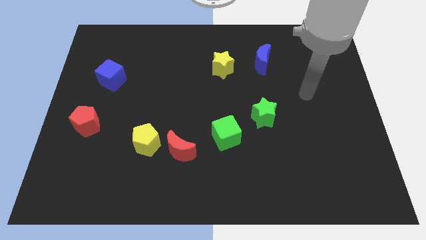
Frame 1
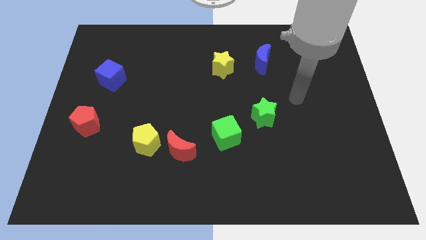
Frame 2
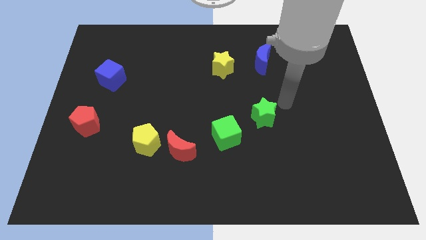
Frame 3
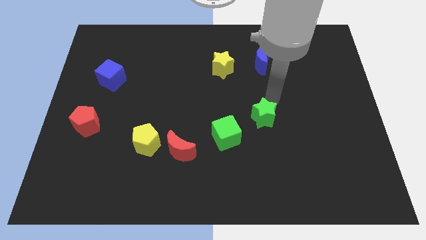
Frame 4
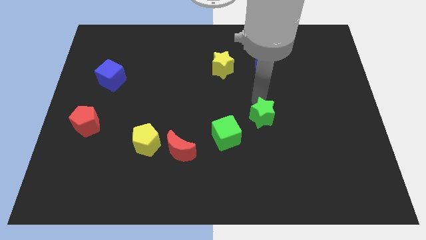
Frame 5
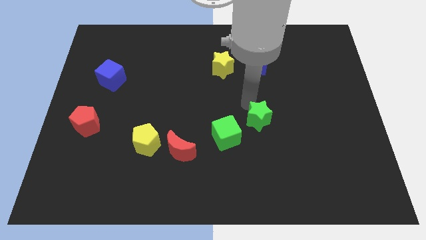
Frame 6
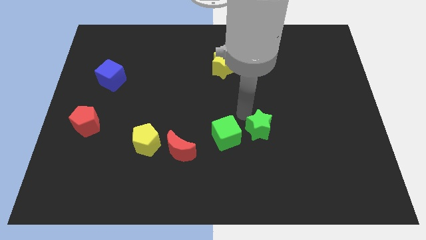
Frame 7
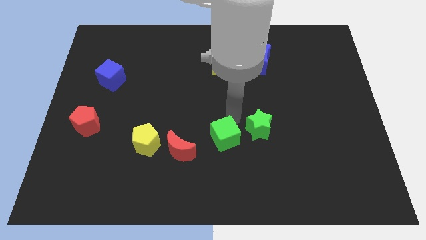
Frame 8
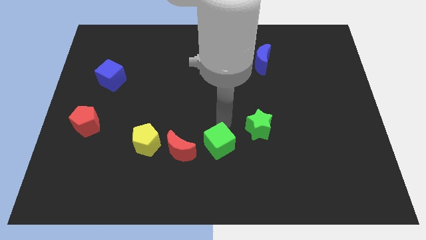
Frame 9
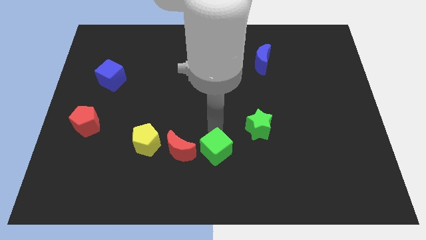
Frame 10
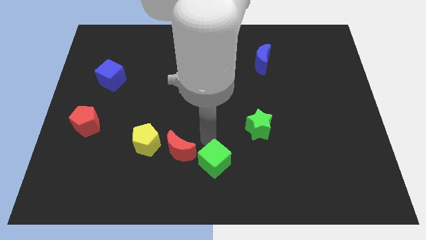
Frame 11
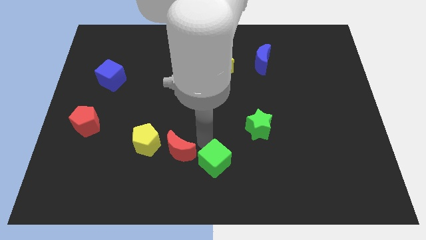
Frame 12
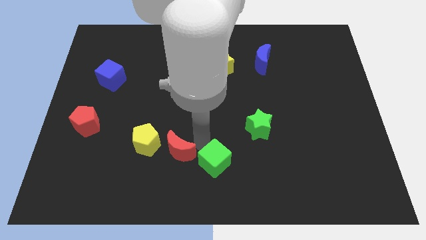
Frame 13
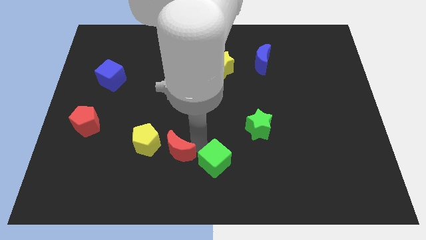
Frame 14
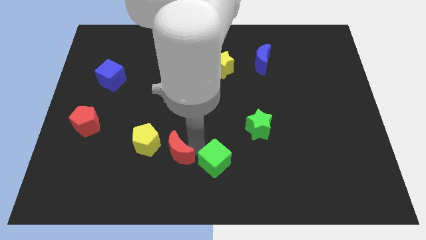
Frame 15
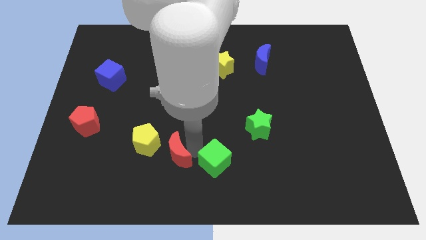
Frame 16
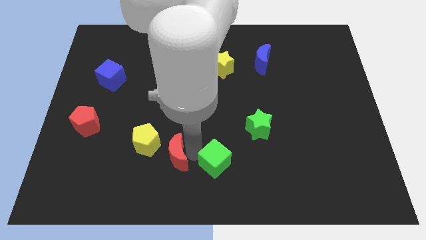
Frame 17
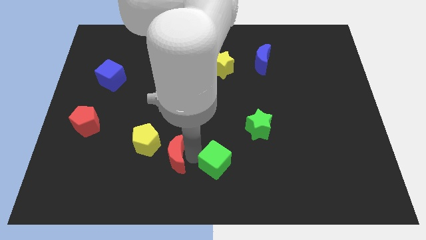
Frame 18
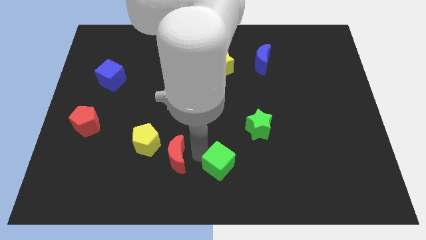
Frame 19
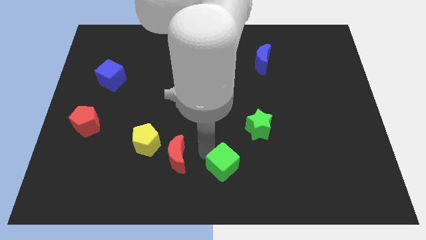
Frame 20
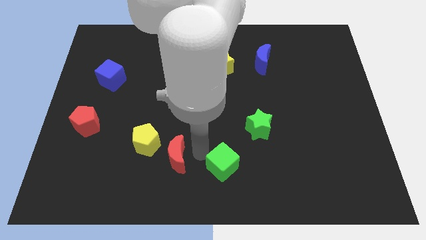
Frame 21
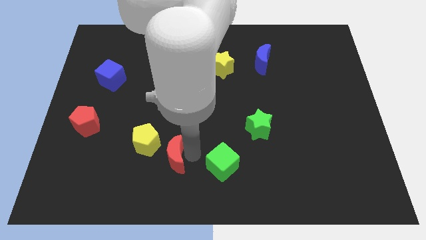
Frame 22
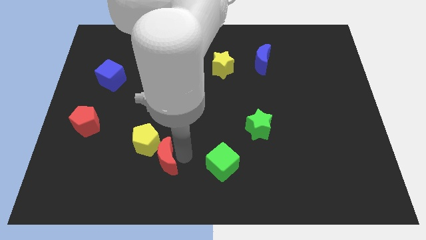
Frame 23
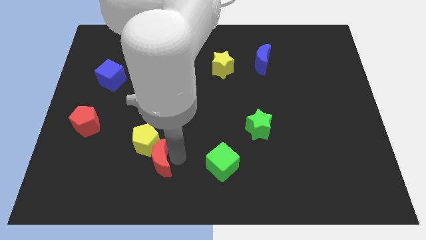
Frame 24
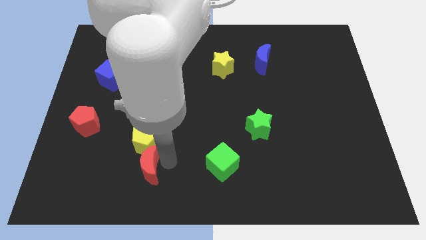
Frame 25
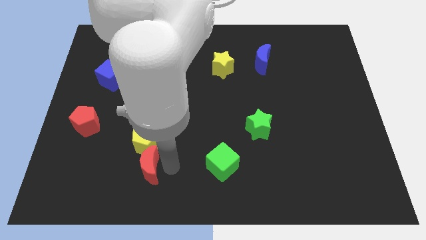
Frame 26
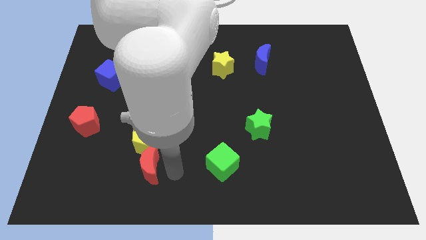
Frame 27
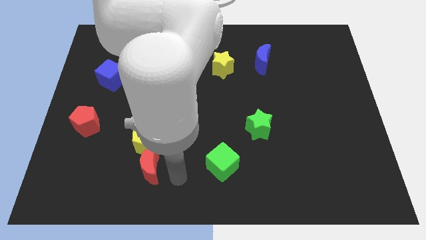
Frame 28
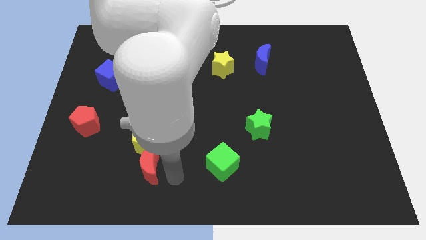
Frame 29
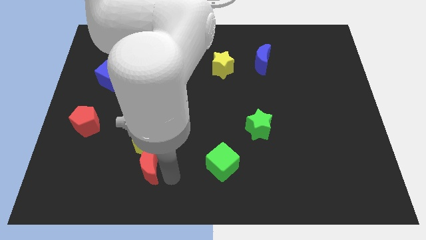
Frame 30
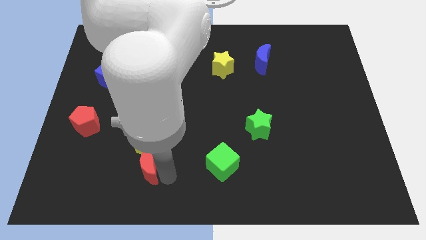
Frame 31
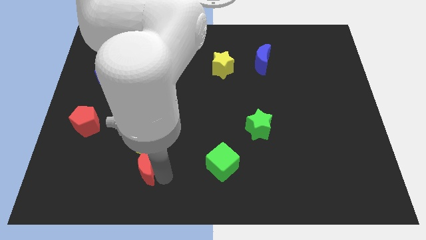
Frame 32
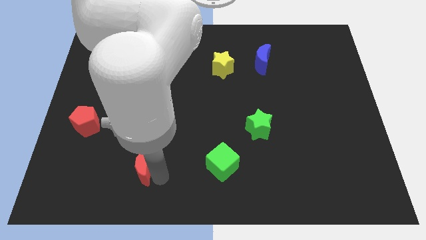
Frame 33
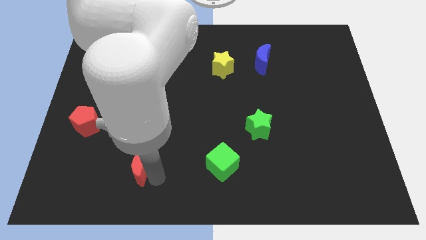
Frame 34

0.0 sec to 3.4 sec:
move the red moon a little left

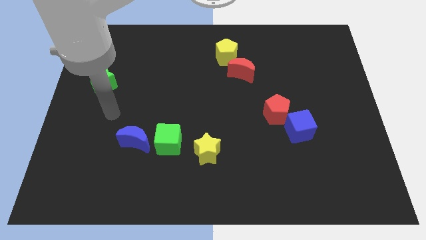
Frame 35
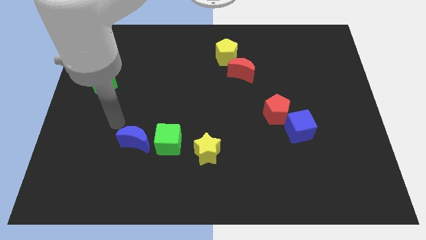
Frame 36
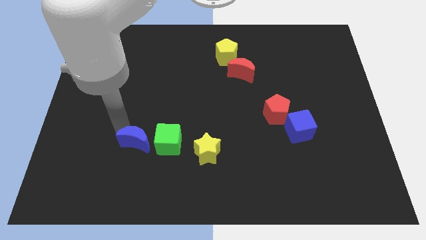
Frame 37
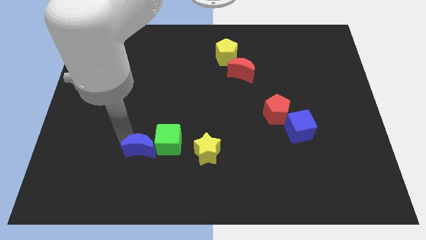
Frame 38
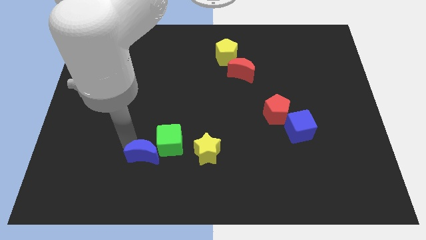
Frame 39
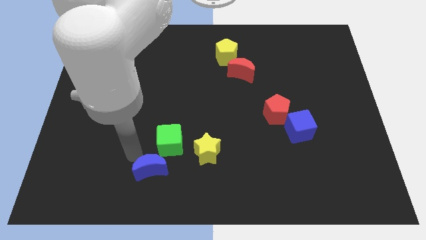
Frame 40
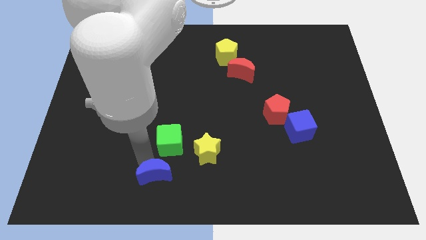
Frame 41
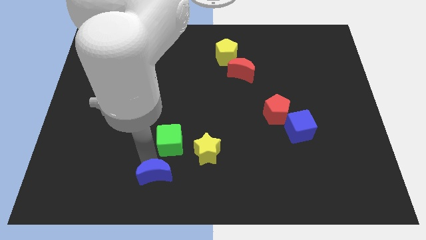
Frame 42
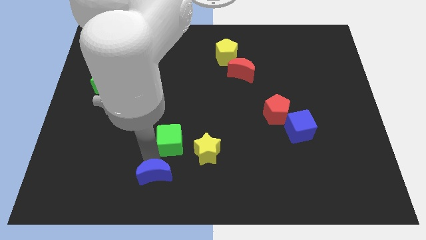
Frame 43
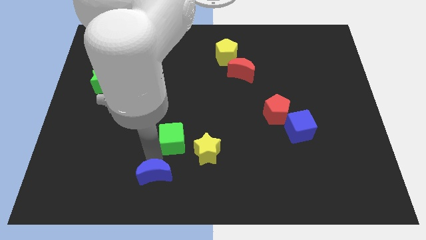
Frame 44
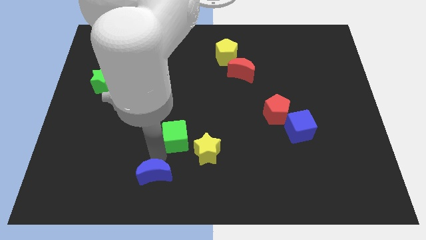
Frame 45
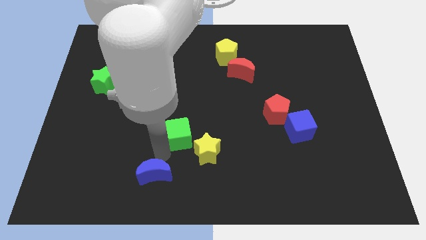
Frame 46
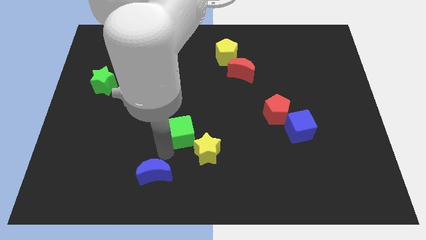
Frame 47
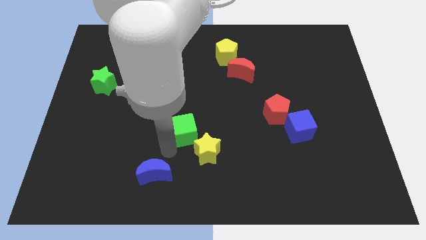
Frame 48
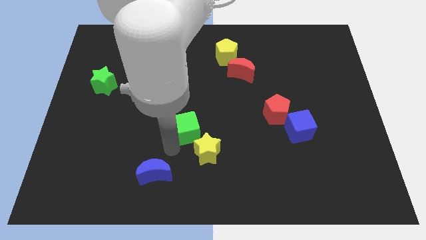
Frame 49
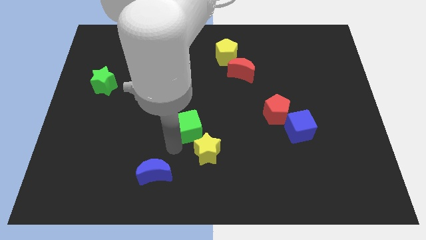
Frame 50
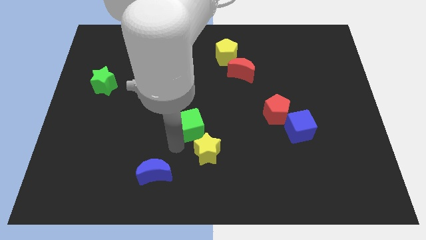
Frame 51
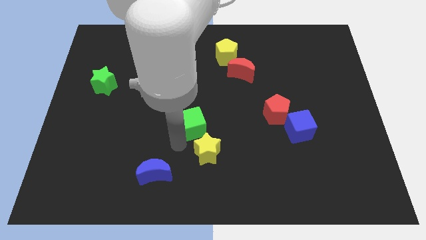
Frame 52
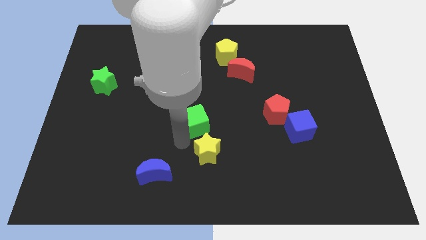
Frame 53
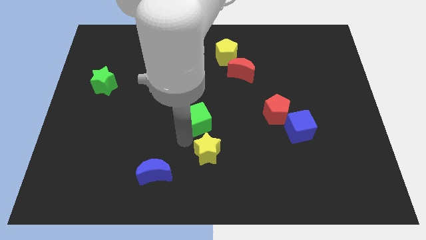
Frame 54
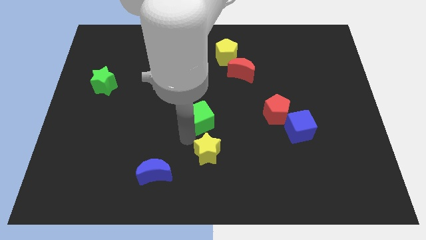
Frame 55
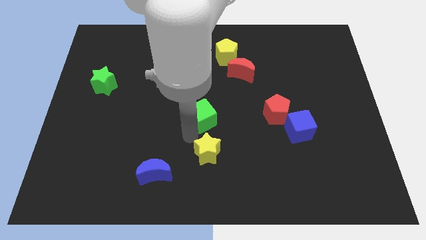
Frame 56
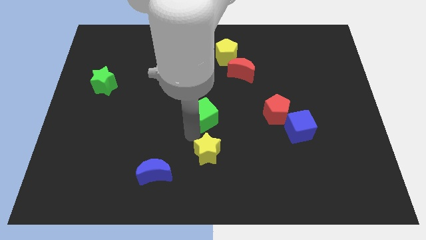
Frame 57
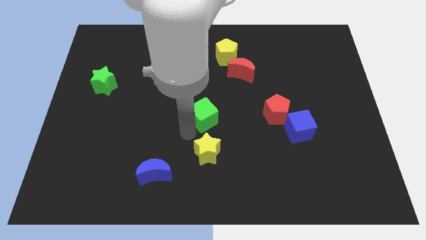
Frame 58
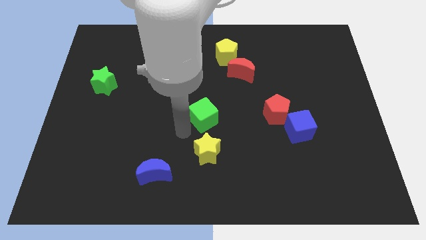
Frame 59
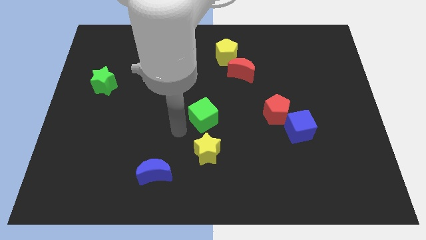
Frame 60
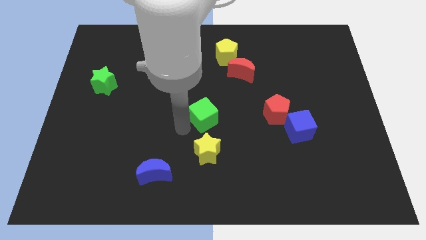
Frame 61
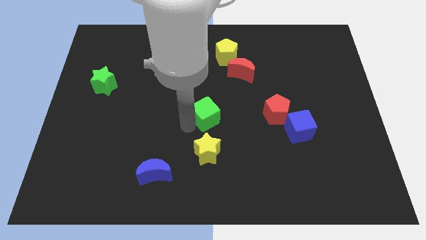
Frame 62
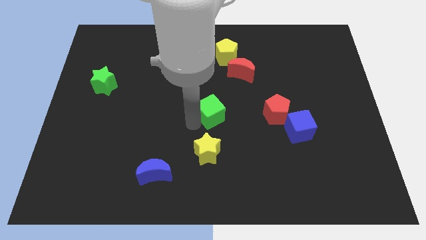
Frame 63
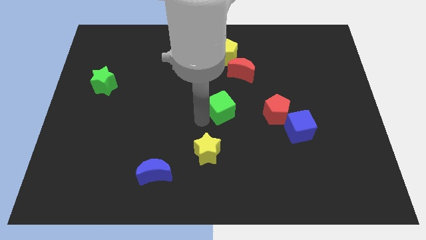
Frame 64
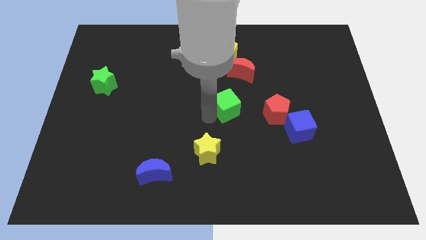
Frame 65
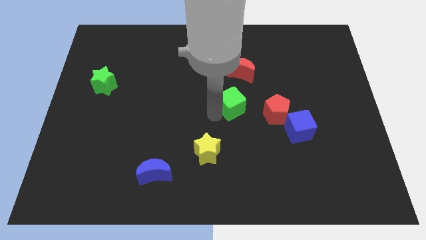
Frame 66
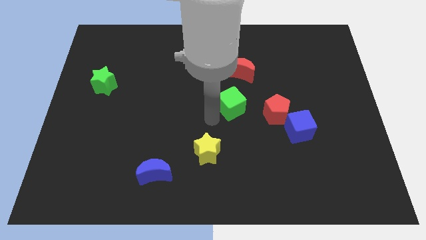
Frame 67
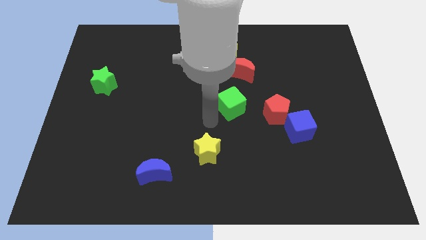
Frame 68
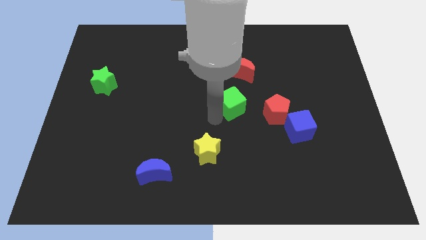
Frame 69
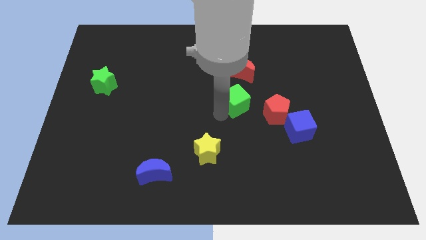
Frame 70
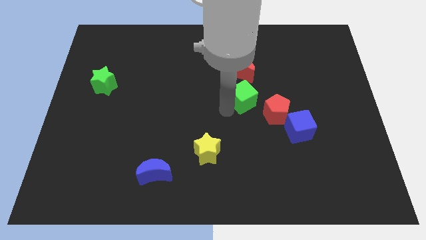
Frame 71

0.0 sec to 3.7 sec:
push the green cube diagonally upwards and right

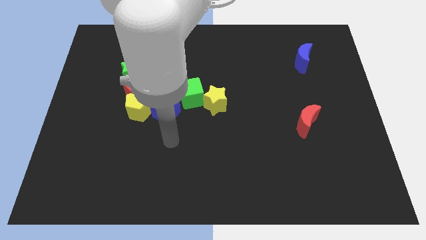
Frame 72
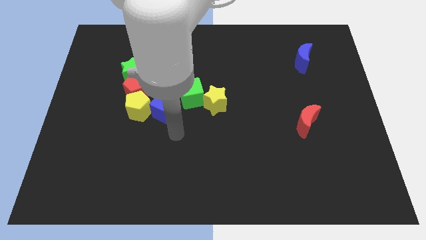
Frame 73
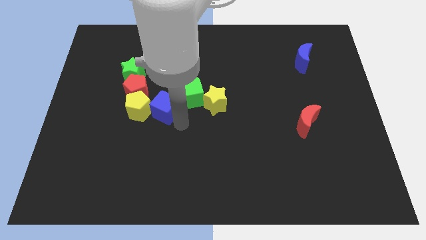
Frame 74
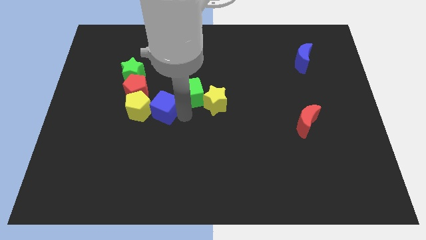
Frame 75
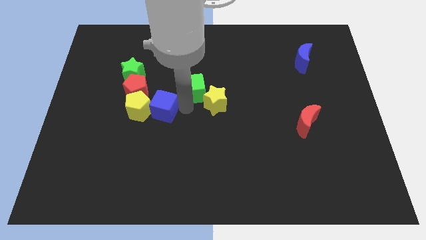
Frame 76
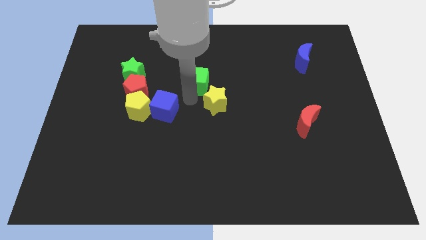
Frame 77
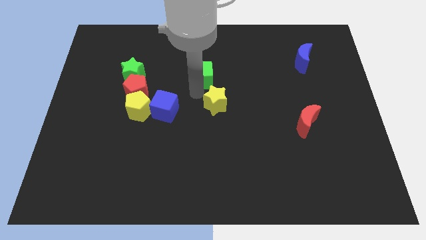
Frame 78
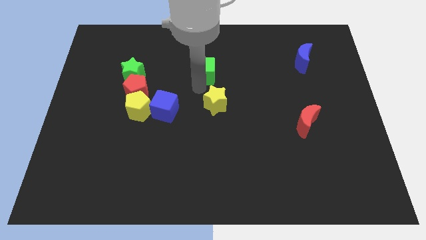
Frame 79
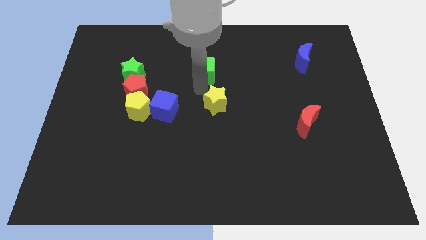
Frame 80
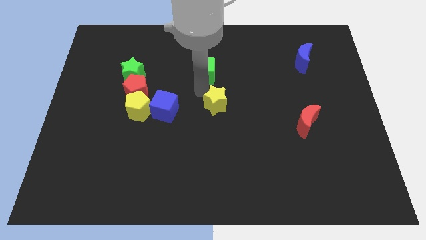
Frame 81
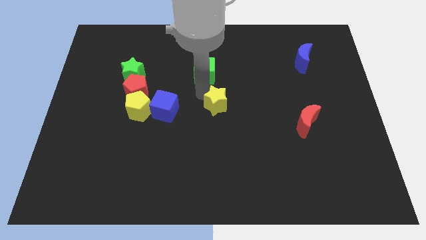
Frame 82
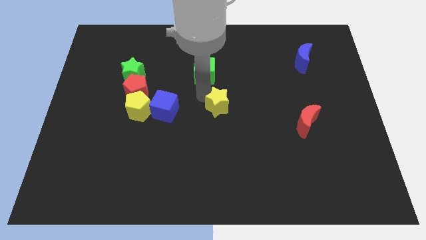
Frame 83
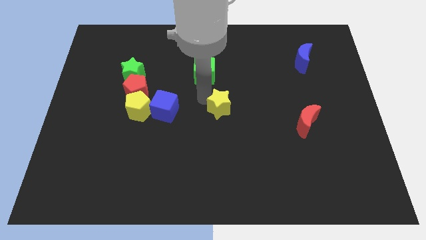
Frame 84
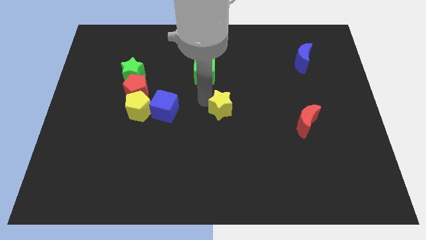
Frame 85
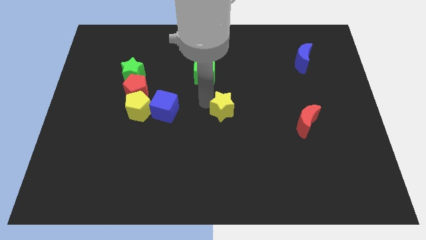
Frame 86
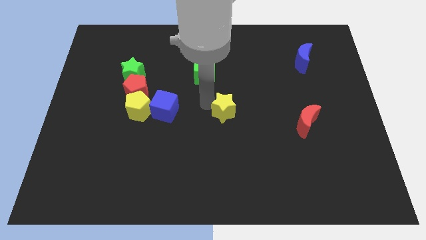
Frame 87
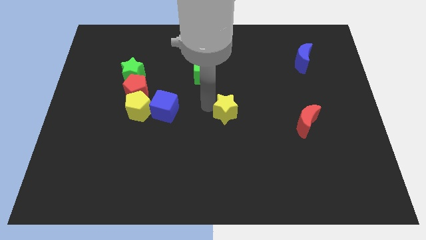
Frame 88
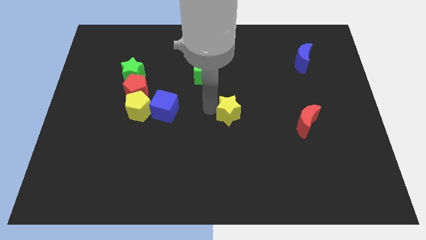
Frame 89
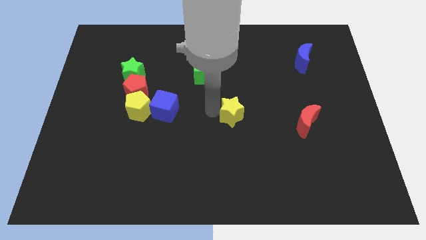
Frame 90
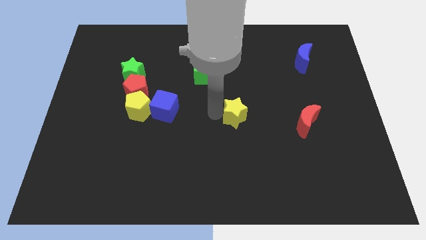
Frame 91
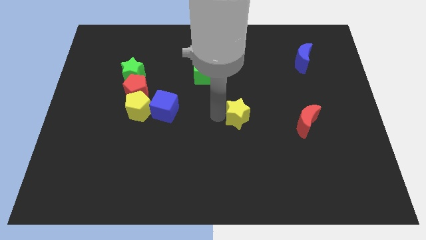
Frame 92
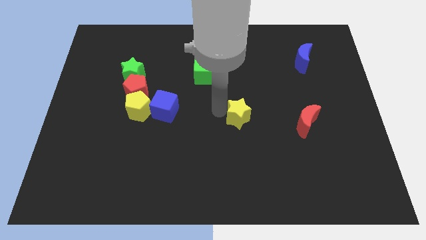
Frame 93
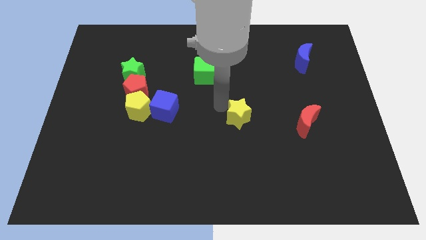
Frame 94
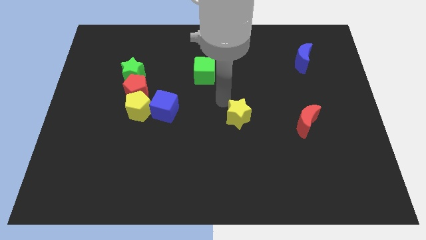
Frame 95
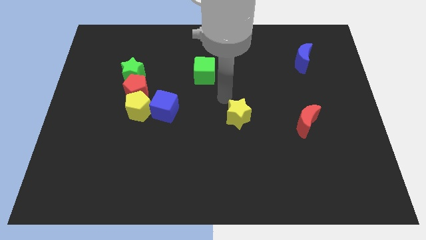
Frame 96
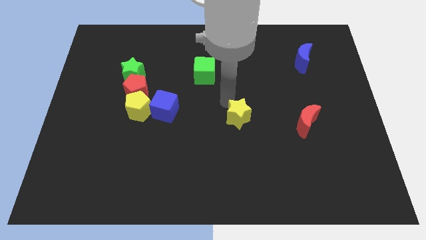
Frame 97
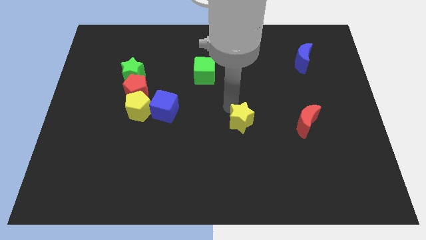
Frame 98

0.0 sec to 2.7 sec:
move the yellow star downwards and right diagonally a bit
